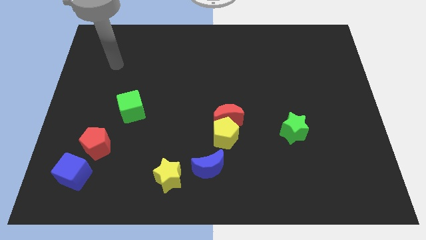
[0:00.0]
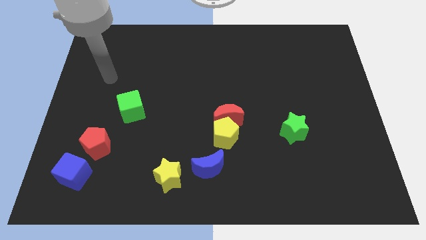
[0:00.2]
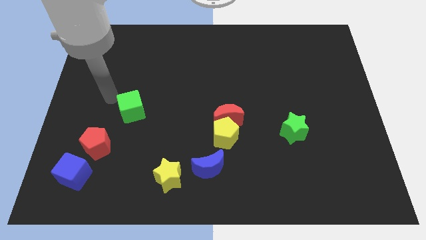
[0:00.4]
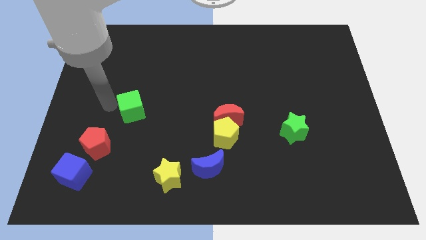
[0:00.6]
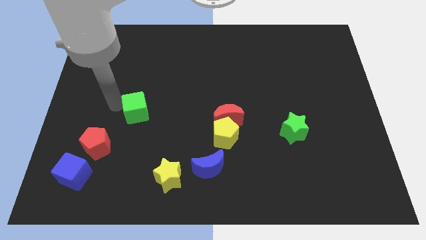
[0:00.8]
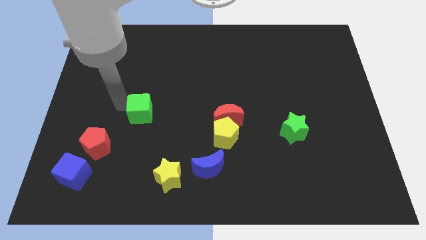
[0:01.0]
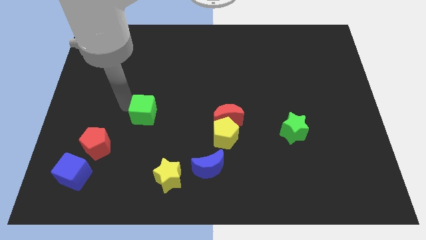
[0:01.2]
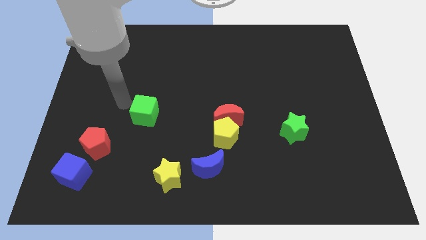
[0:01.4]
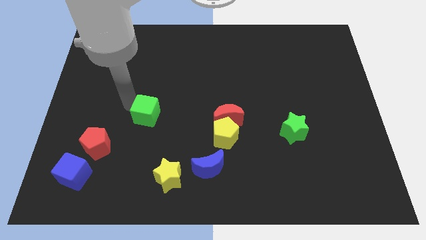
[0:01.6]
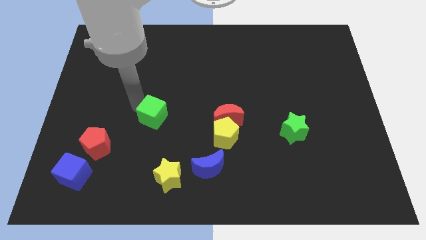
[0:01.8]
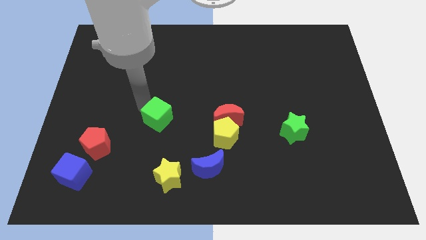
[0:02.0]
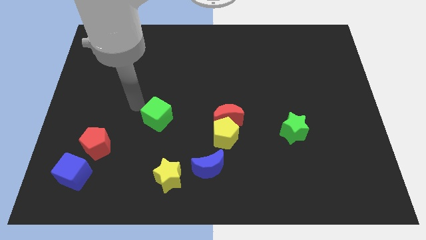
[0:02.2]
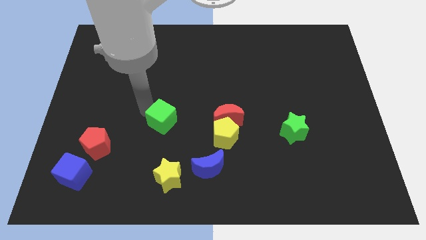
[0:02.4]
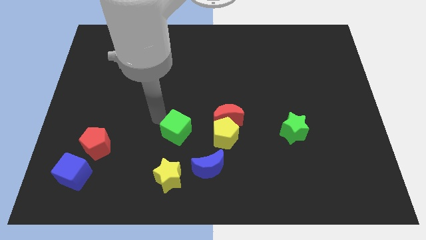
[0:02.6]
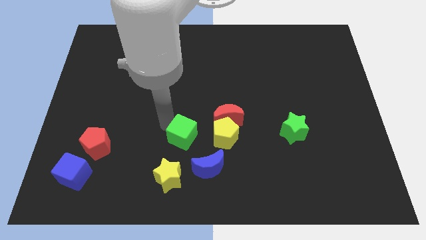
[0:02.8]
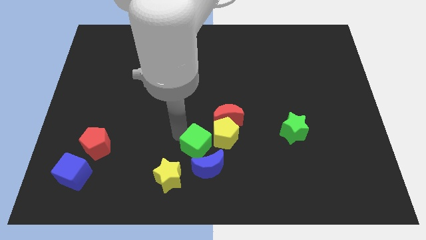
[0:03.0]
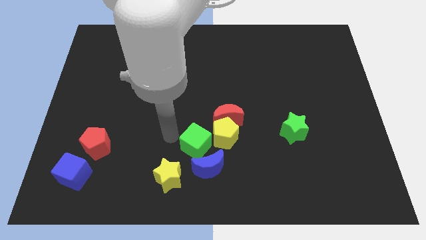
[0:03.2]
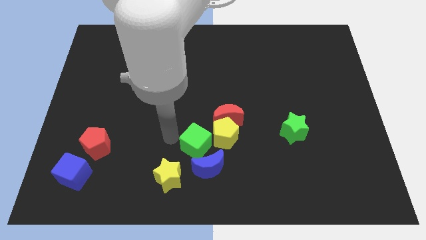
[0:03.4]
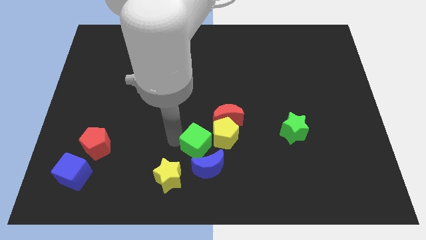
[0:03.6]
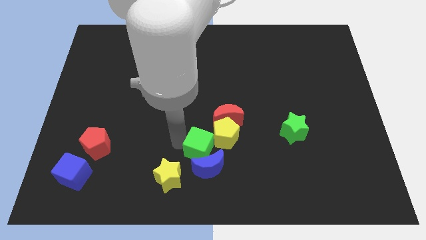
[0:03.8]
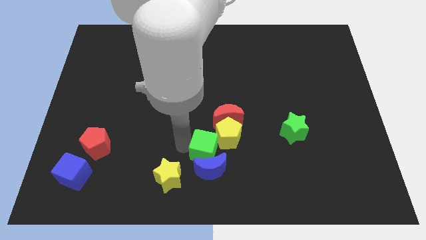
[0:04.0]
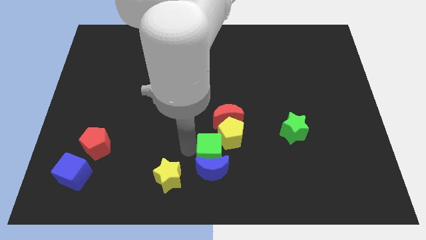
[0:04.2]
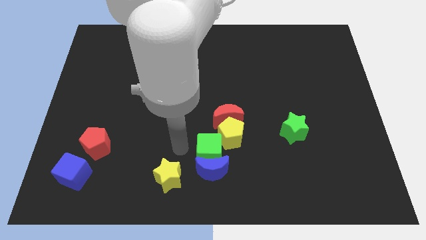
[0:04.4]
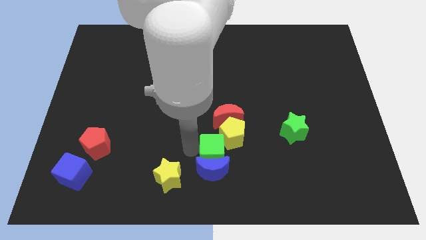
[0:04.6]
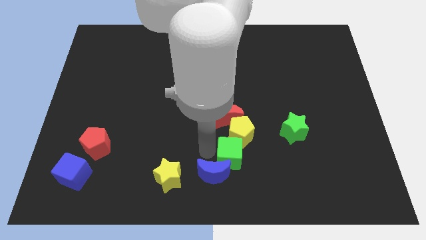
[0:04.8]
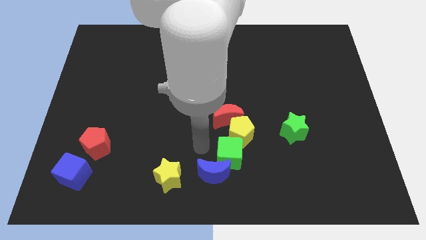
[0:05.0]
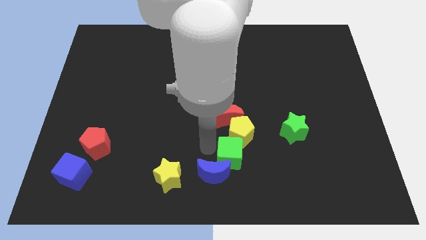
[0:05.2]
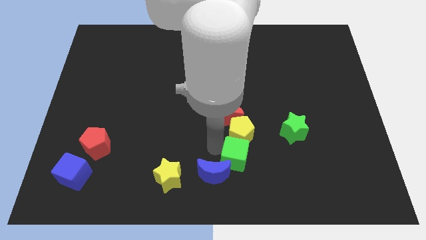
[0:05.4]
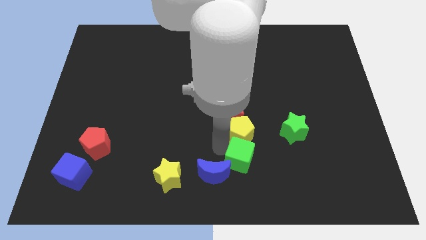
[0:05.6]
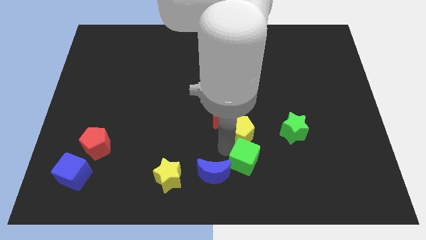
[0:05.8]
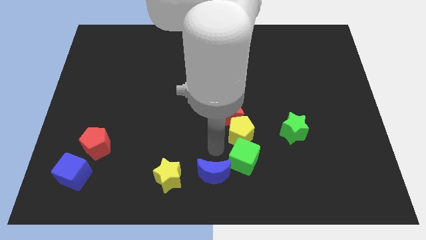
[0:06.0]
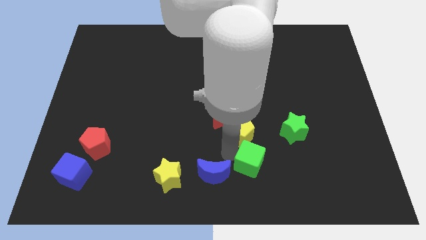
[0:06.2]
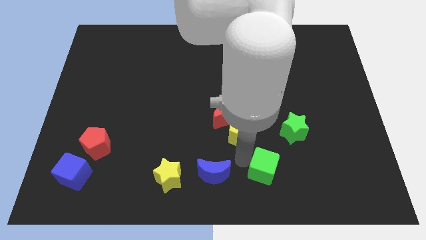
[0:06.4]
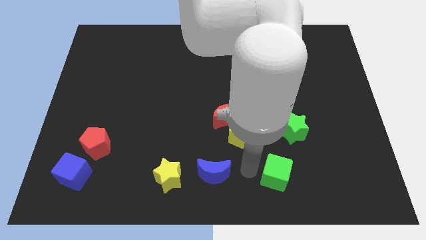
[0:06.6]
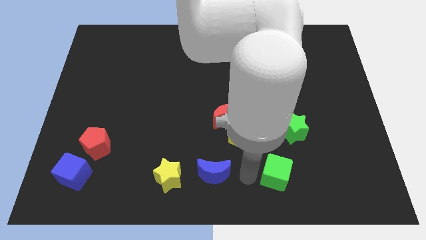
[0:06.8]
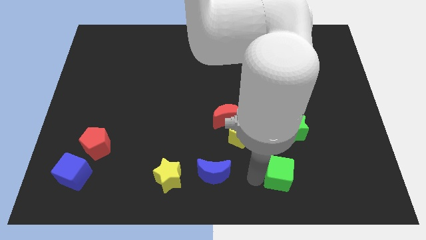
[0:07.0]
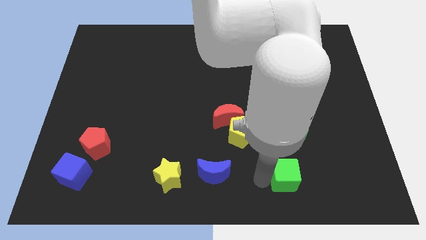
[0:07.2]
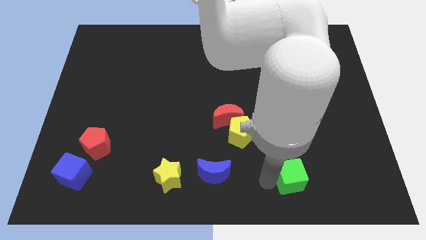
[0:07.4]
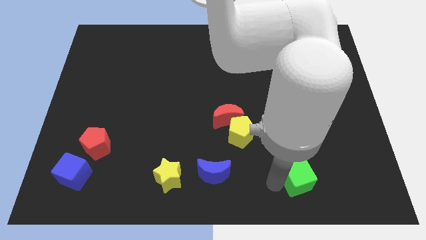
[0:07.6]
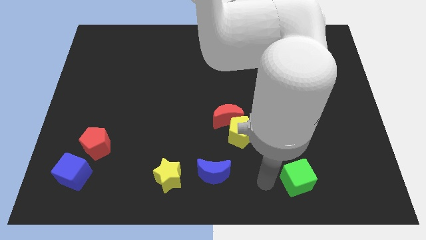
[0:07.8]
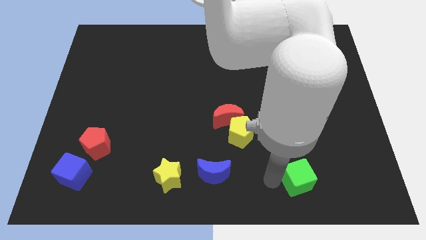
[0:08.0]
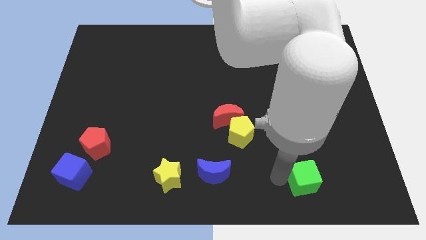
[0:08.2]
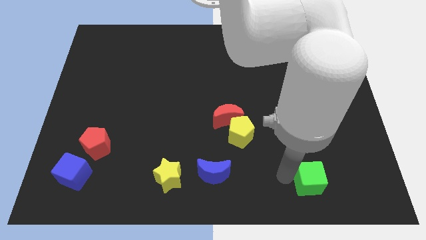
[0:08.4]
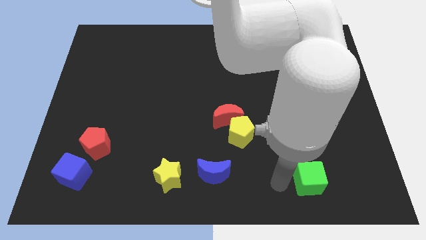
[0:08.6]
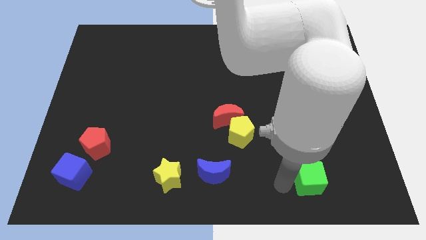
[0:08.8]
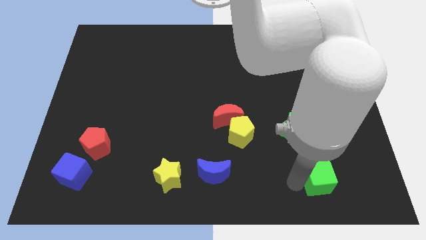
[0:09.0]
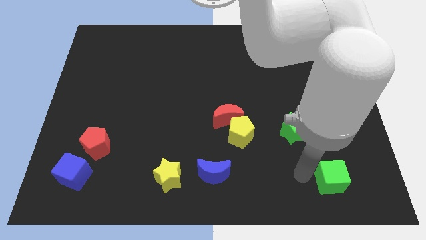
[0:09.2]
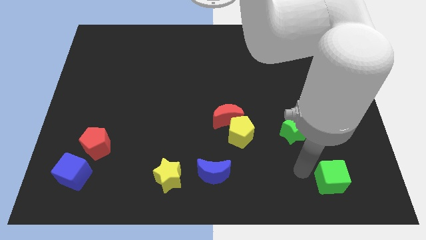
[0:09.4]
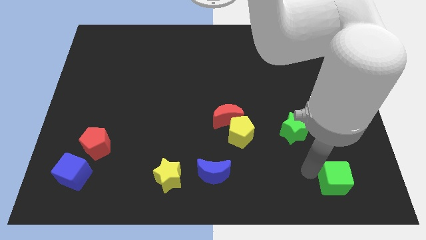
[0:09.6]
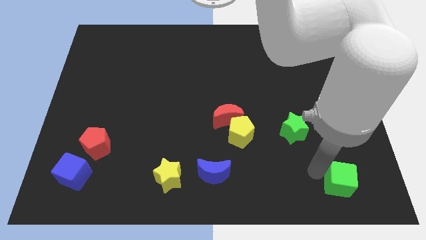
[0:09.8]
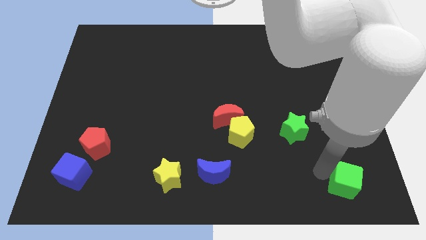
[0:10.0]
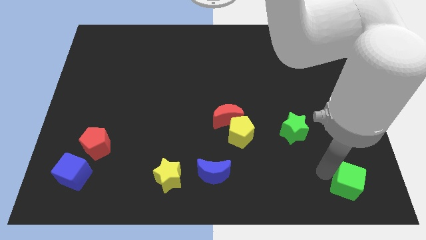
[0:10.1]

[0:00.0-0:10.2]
slide the green cube to the bottom right

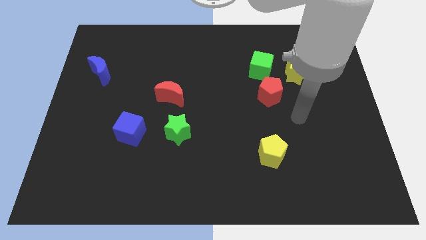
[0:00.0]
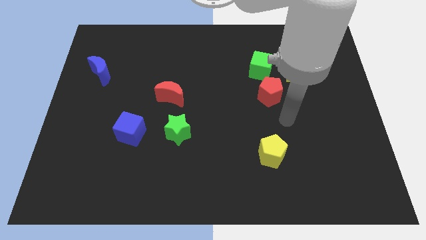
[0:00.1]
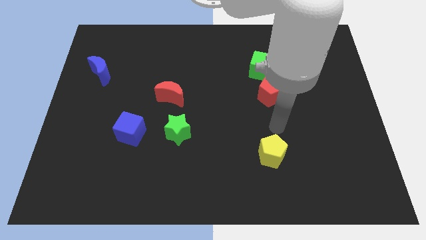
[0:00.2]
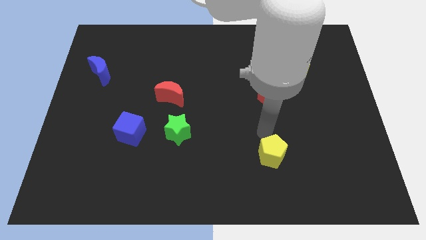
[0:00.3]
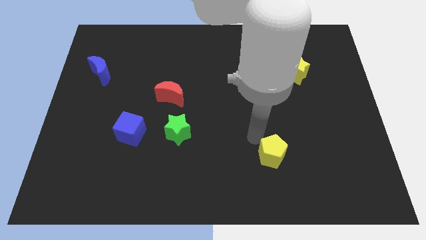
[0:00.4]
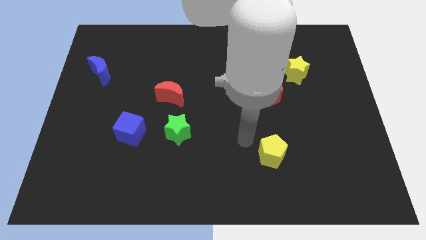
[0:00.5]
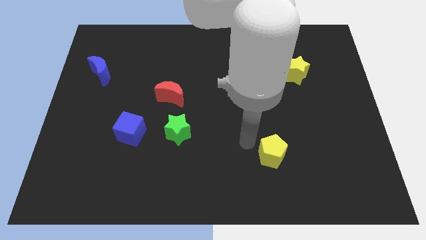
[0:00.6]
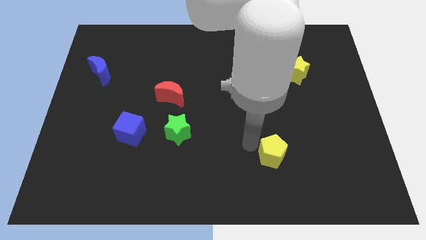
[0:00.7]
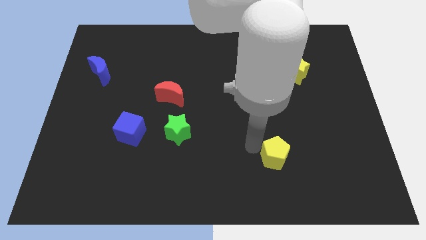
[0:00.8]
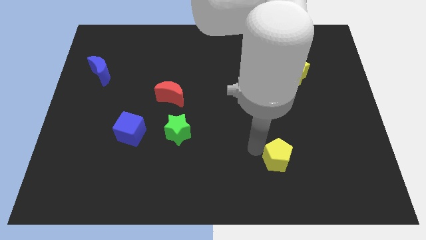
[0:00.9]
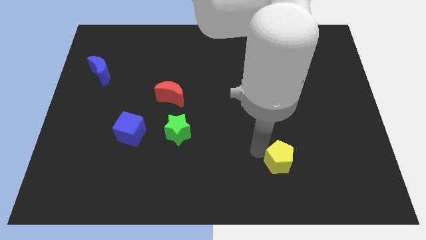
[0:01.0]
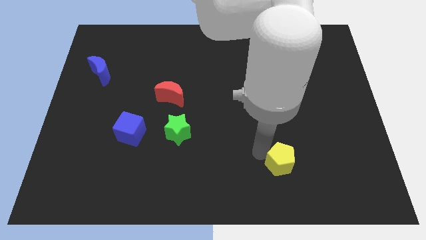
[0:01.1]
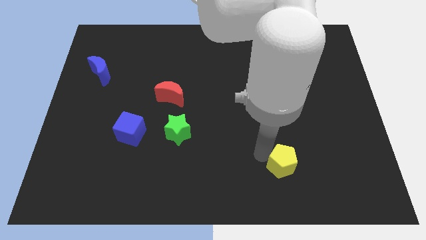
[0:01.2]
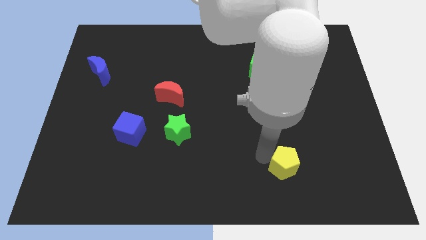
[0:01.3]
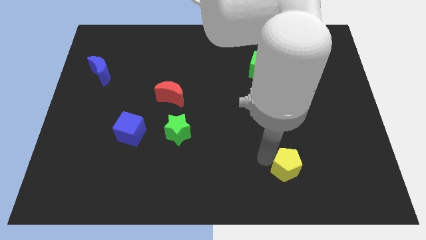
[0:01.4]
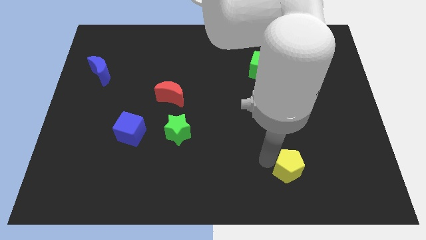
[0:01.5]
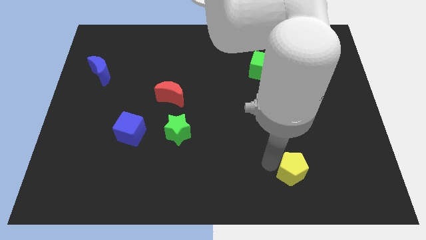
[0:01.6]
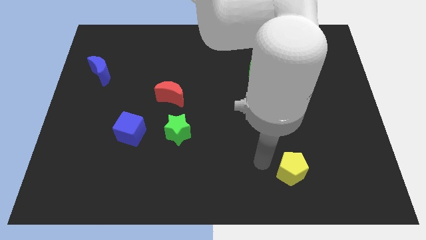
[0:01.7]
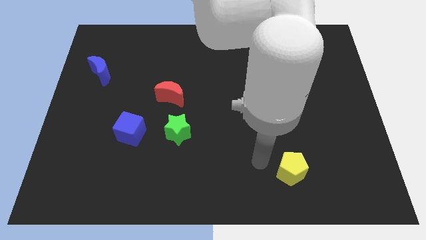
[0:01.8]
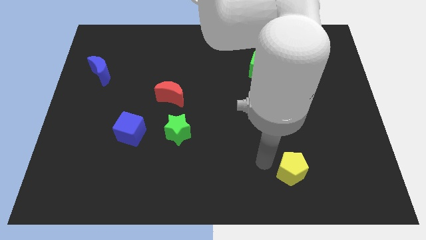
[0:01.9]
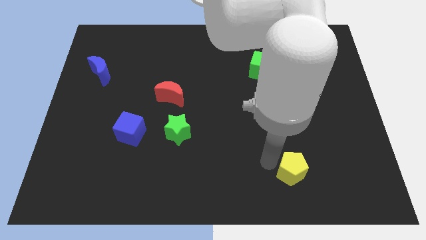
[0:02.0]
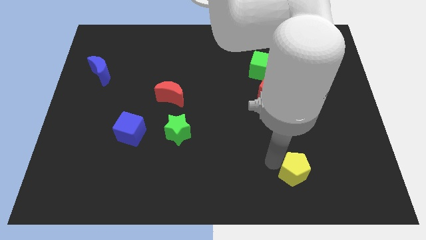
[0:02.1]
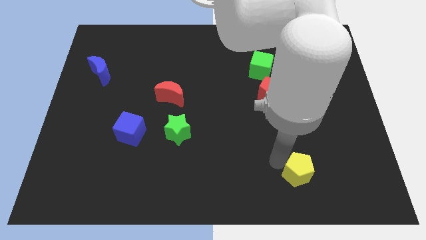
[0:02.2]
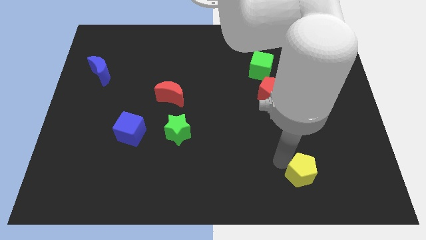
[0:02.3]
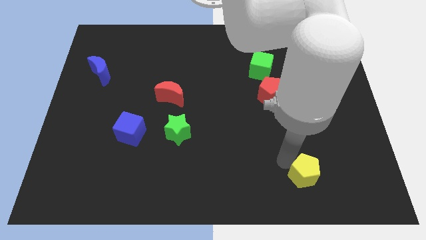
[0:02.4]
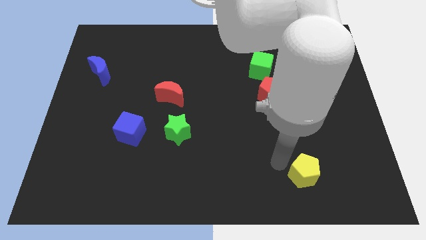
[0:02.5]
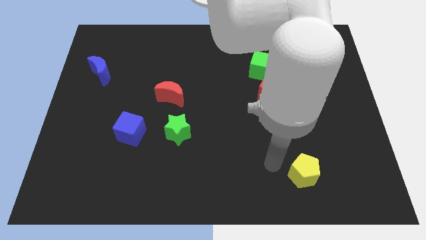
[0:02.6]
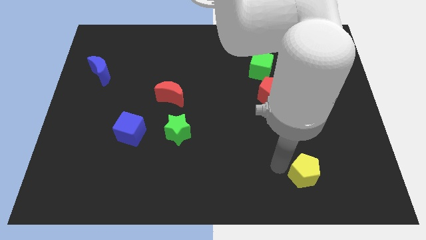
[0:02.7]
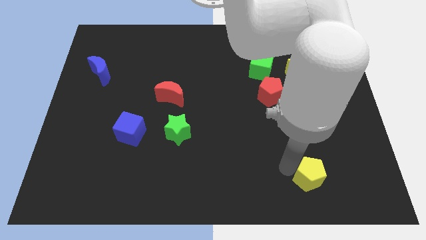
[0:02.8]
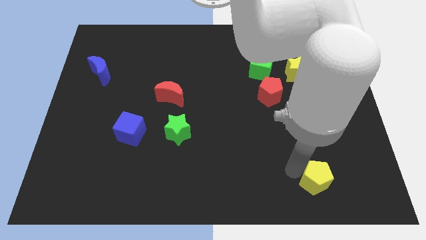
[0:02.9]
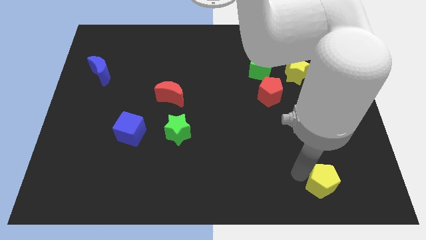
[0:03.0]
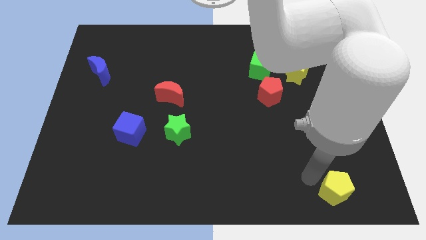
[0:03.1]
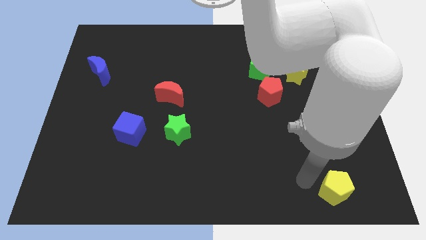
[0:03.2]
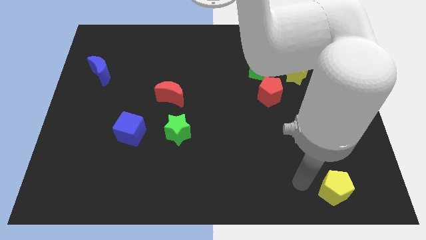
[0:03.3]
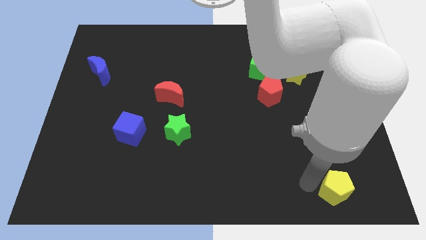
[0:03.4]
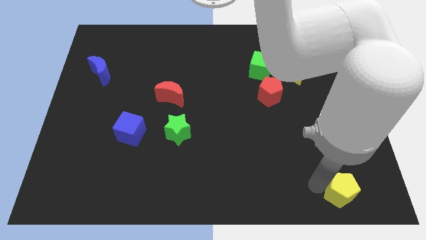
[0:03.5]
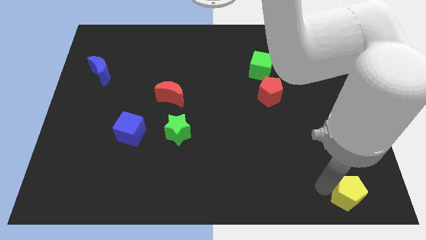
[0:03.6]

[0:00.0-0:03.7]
slide the yellow pentagon to the lower right corner
